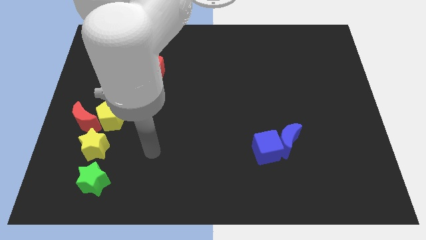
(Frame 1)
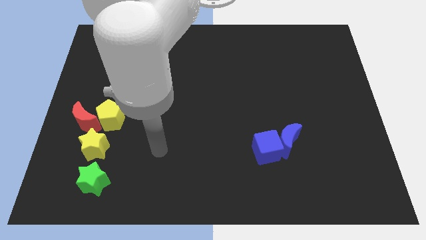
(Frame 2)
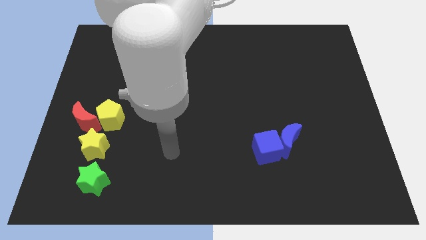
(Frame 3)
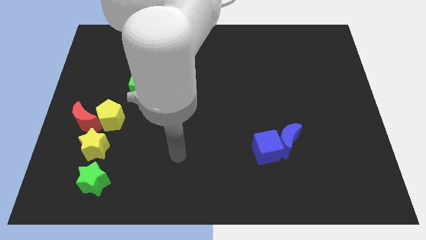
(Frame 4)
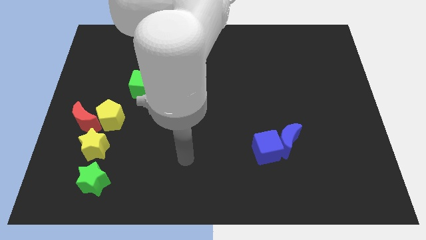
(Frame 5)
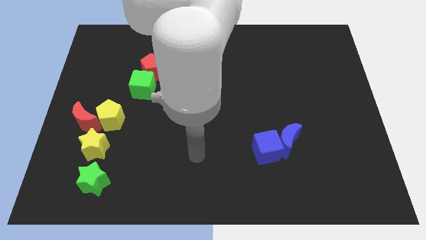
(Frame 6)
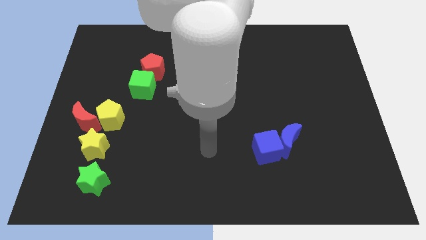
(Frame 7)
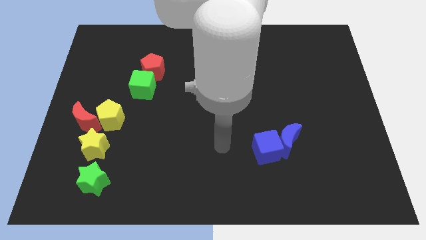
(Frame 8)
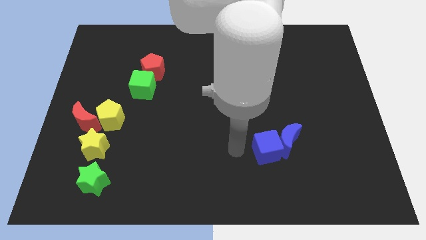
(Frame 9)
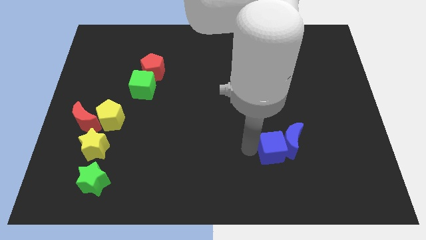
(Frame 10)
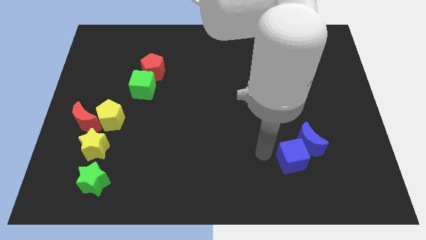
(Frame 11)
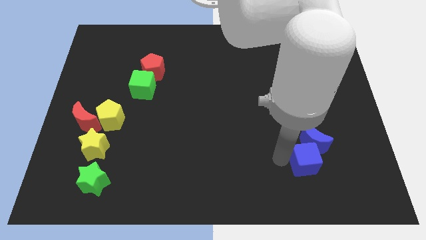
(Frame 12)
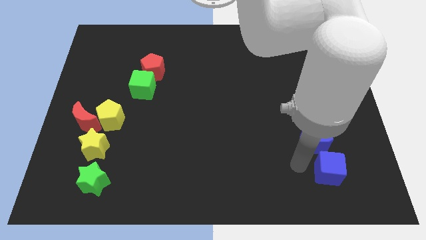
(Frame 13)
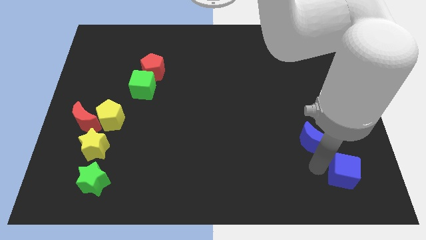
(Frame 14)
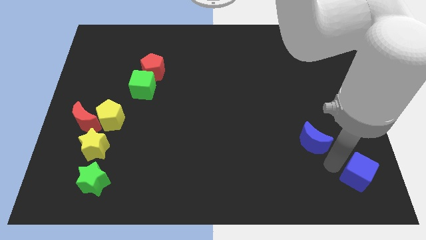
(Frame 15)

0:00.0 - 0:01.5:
separate the blue moon from the blue cube

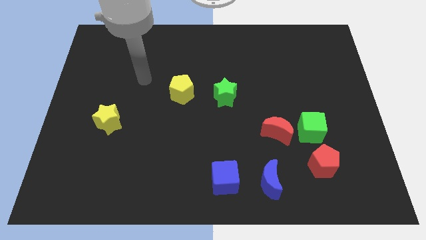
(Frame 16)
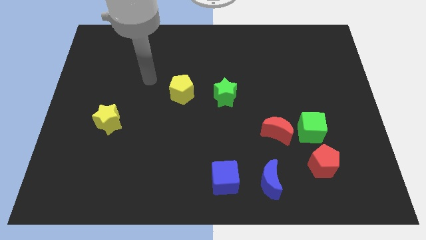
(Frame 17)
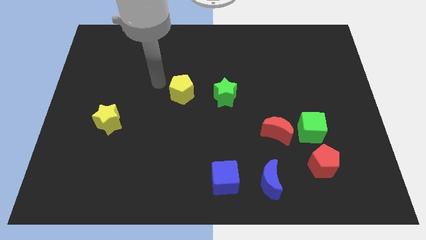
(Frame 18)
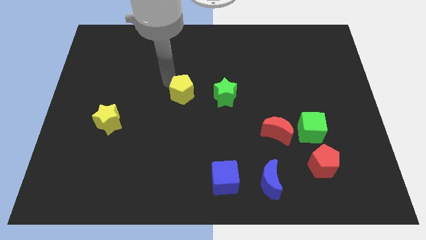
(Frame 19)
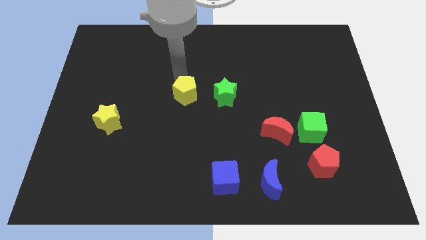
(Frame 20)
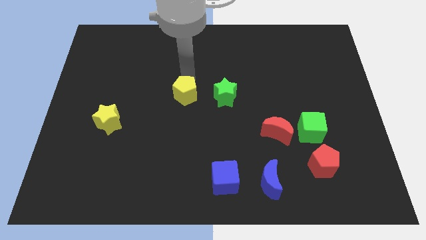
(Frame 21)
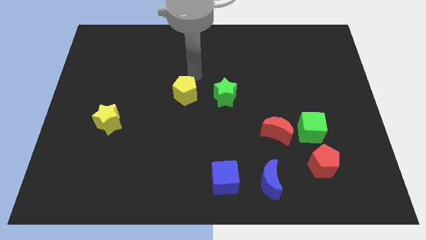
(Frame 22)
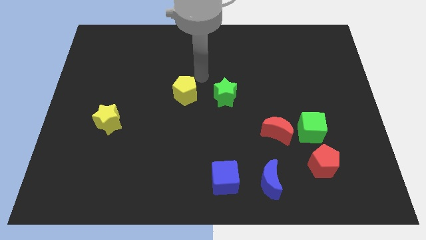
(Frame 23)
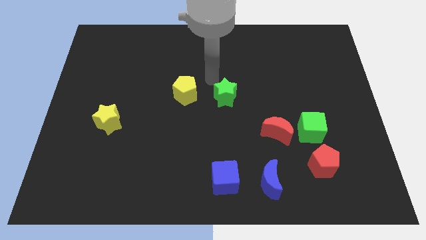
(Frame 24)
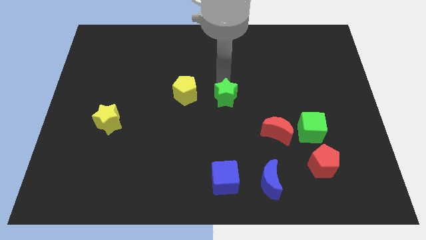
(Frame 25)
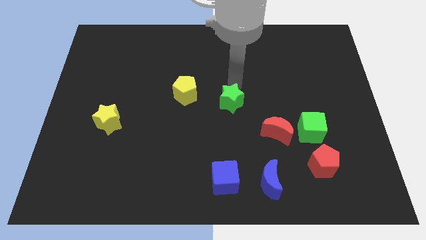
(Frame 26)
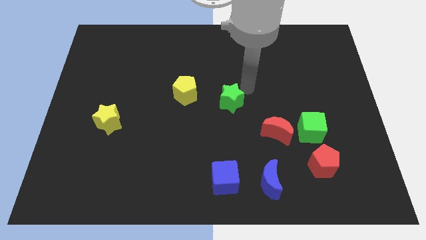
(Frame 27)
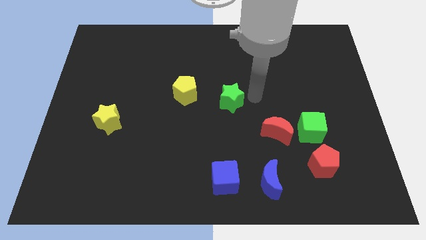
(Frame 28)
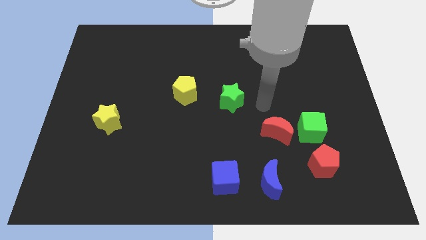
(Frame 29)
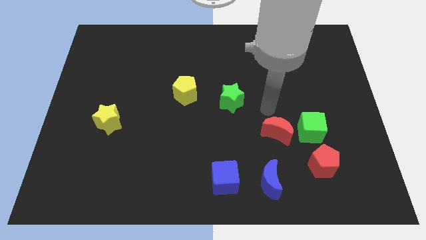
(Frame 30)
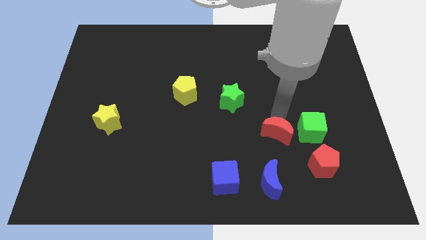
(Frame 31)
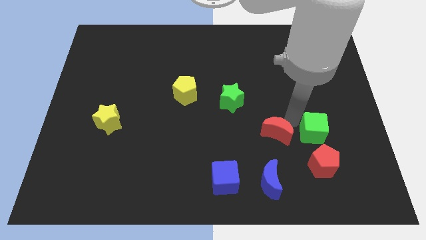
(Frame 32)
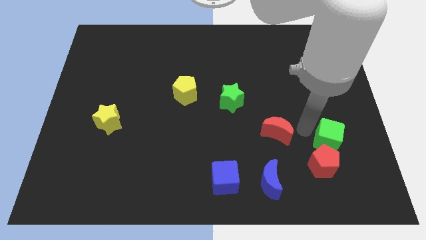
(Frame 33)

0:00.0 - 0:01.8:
separate the red moon from the green cube

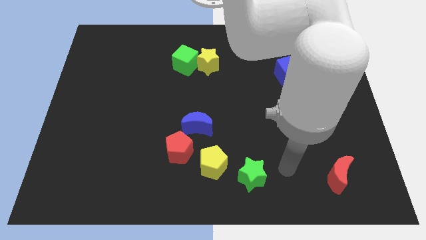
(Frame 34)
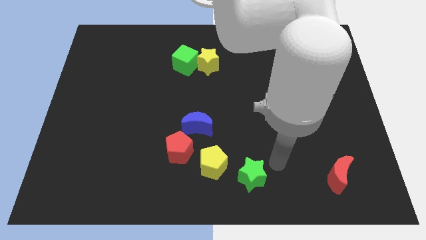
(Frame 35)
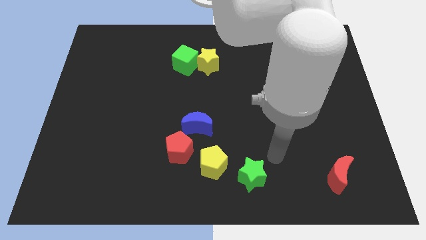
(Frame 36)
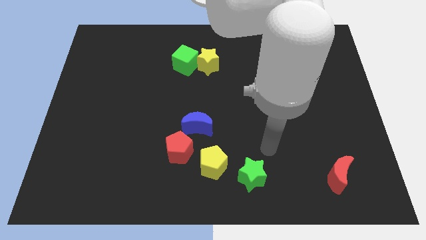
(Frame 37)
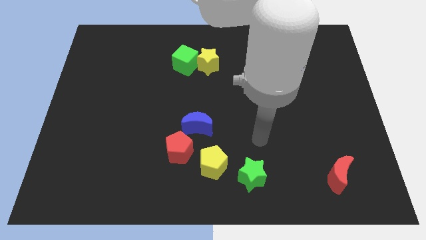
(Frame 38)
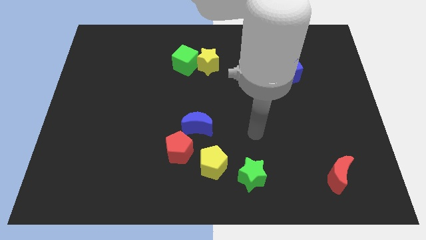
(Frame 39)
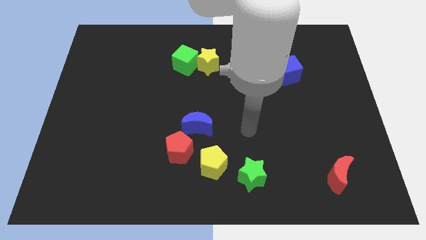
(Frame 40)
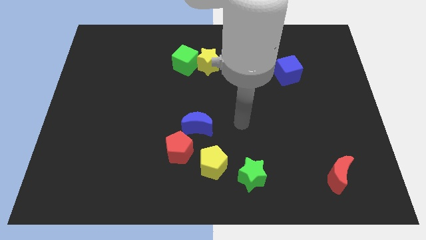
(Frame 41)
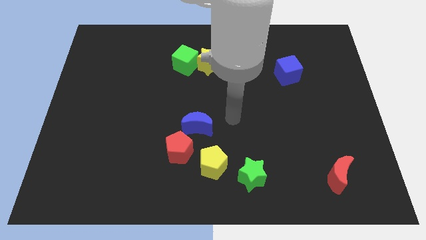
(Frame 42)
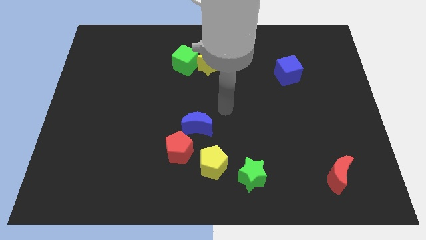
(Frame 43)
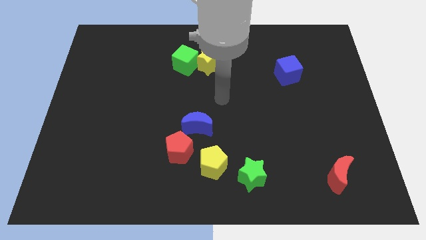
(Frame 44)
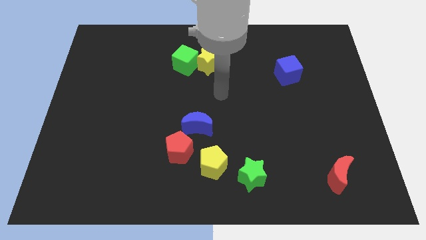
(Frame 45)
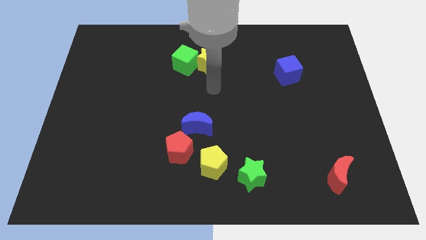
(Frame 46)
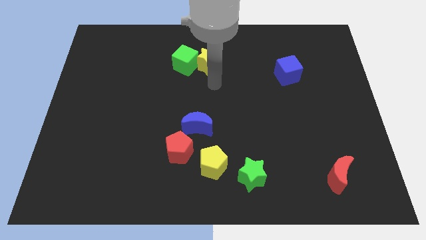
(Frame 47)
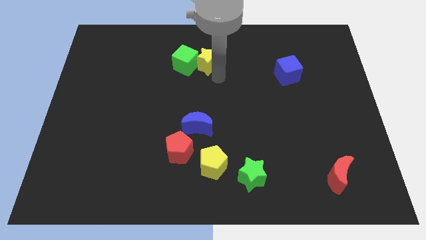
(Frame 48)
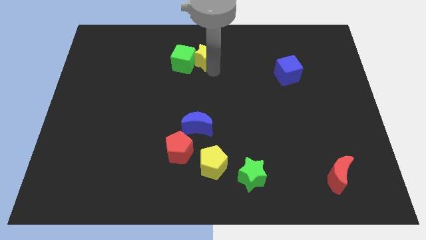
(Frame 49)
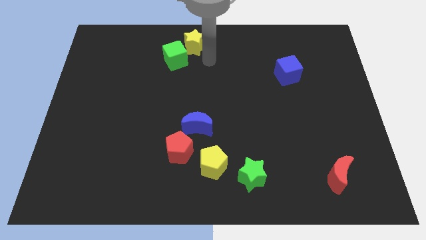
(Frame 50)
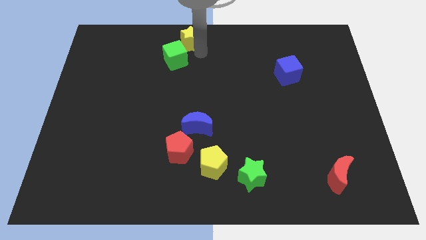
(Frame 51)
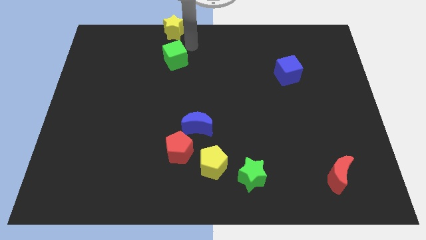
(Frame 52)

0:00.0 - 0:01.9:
move the green cube away from the yellow star

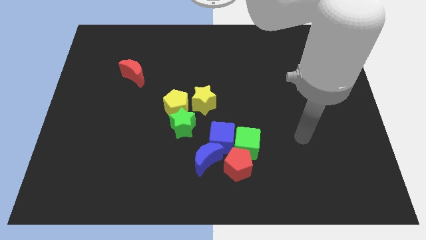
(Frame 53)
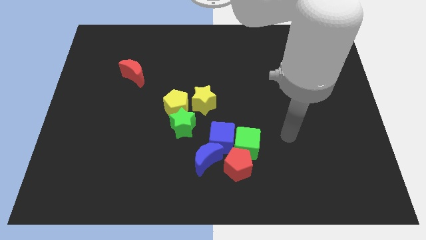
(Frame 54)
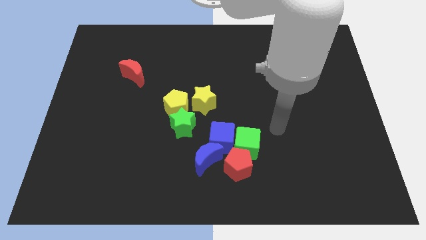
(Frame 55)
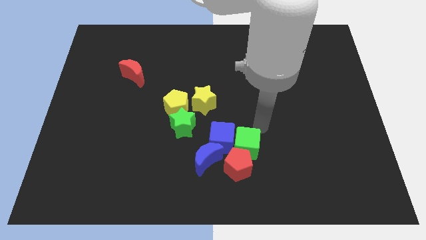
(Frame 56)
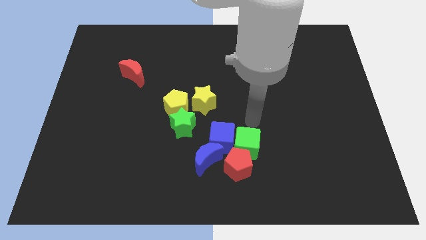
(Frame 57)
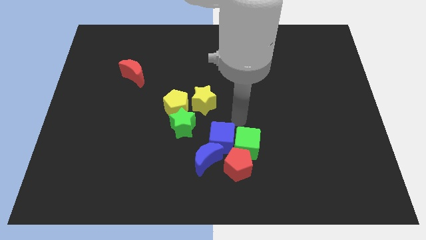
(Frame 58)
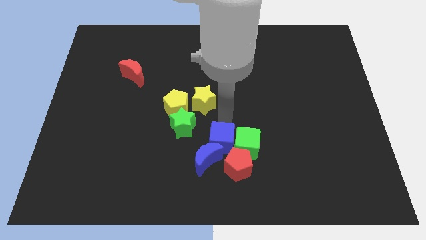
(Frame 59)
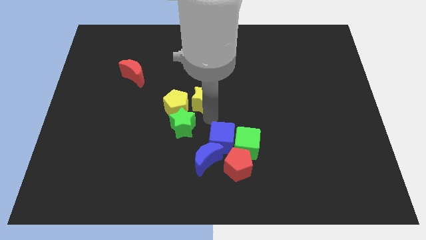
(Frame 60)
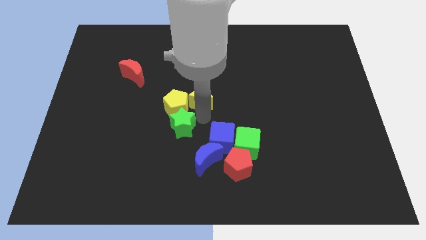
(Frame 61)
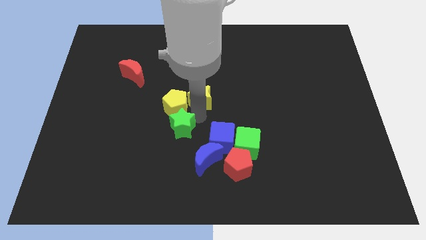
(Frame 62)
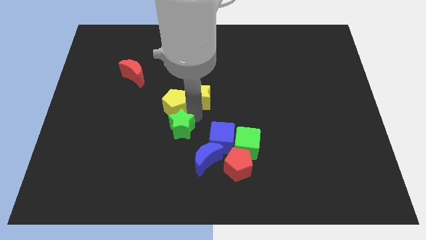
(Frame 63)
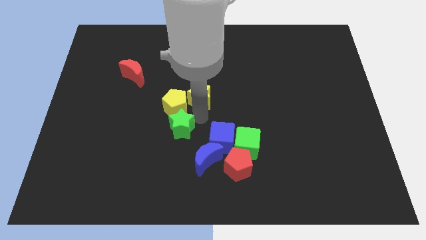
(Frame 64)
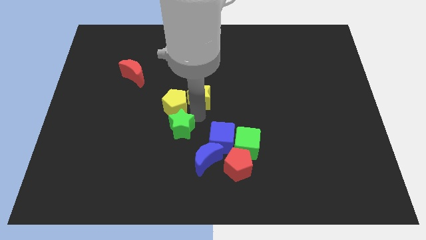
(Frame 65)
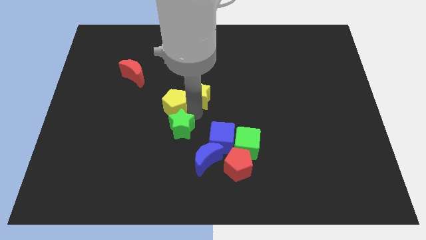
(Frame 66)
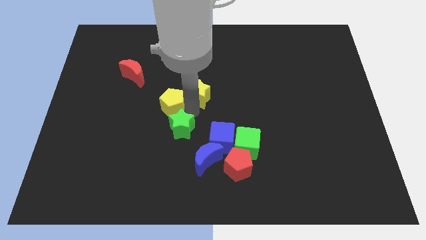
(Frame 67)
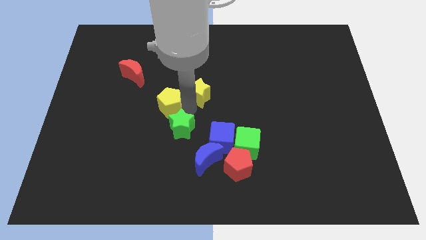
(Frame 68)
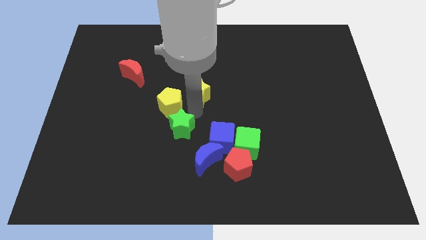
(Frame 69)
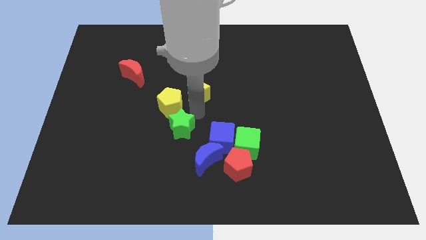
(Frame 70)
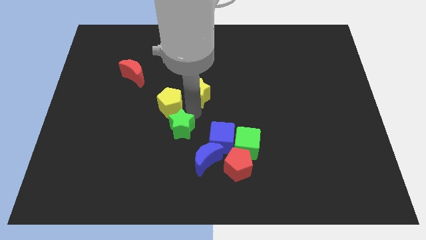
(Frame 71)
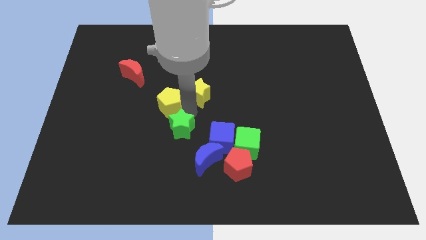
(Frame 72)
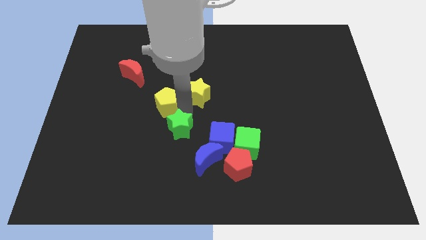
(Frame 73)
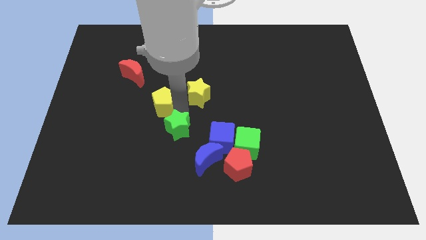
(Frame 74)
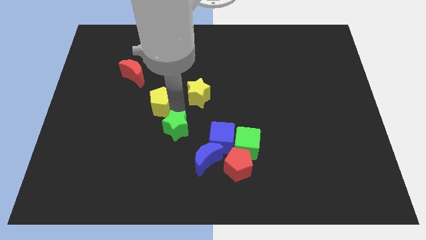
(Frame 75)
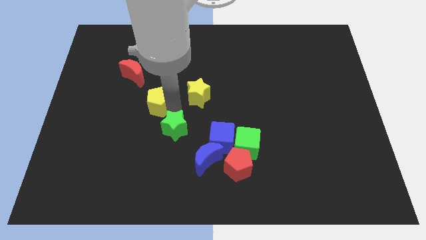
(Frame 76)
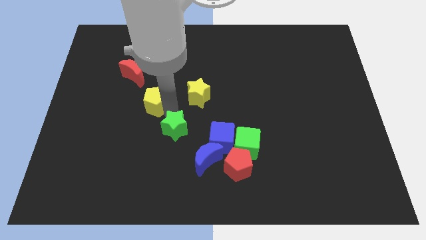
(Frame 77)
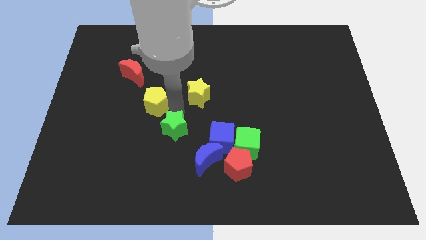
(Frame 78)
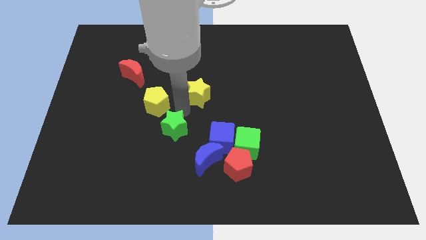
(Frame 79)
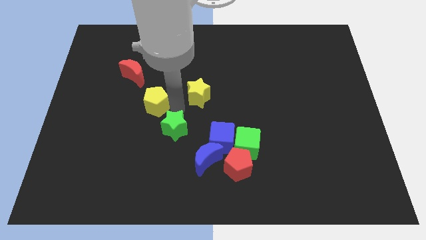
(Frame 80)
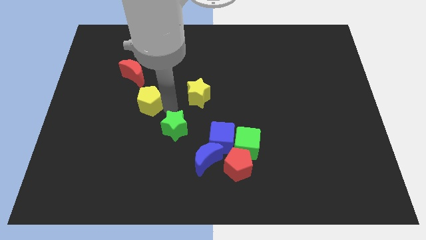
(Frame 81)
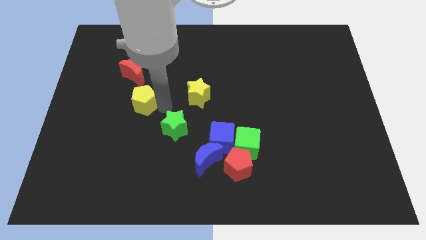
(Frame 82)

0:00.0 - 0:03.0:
pull the yellow pentagon apart from the green star and yellow star

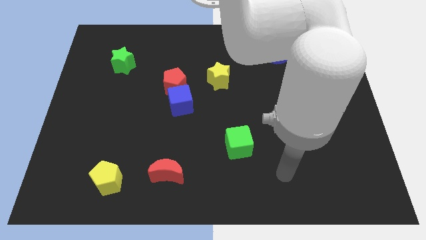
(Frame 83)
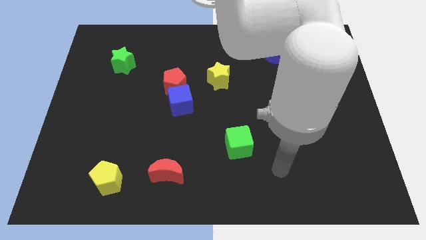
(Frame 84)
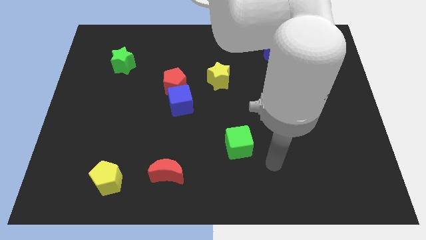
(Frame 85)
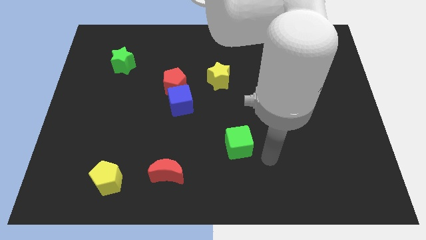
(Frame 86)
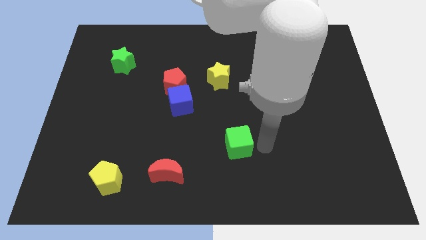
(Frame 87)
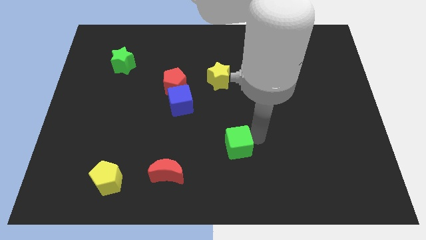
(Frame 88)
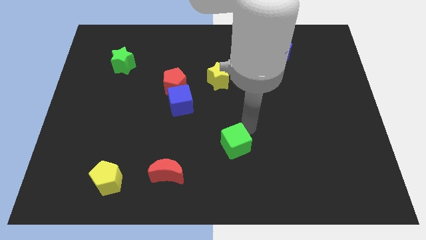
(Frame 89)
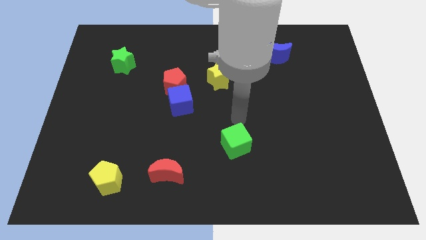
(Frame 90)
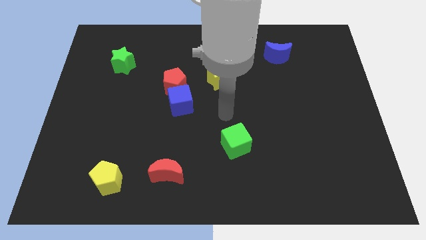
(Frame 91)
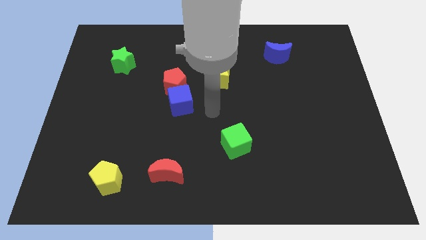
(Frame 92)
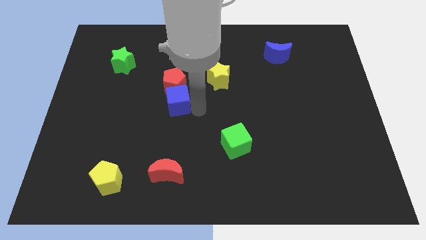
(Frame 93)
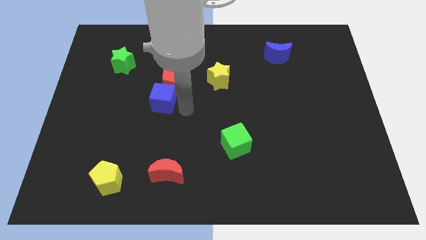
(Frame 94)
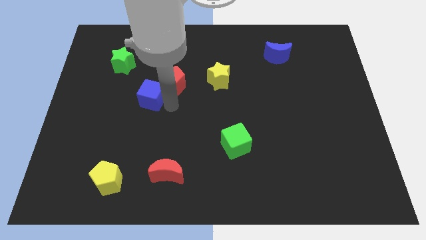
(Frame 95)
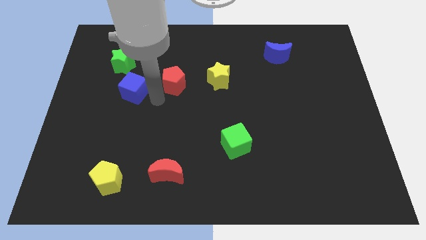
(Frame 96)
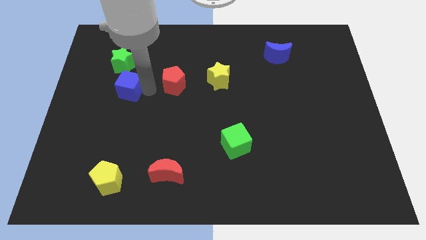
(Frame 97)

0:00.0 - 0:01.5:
pull the red pentagon apart from the blue cube
